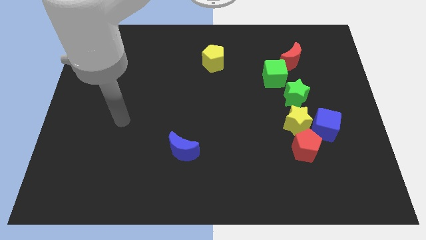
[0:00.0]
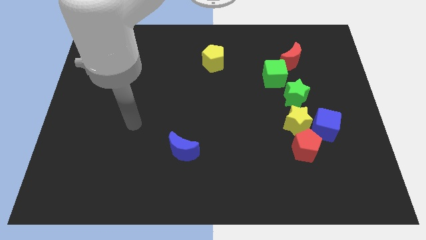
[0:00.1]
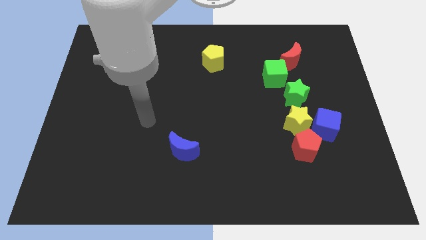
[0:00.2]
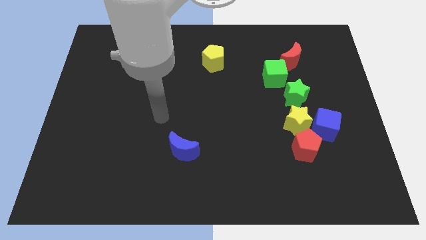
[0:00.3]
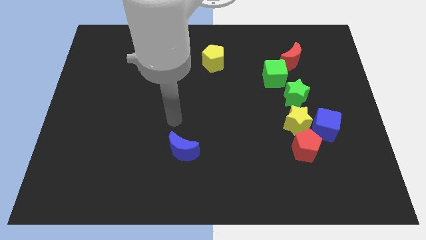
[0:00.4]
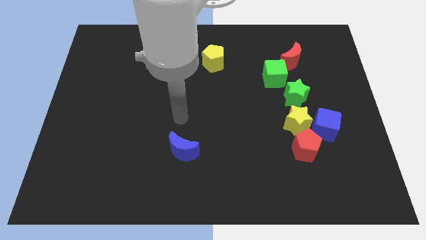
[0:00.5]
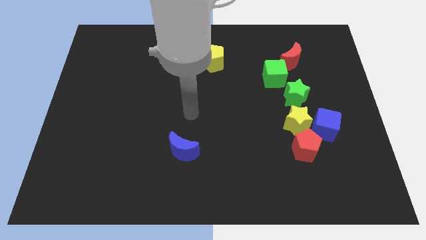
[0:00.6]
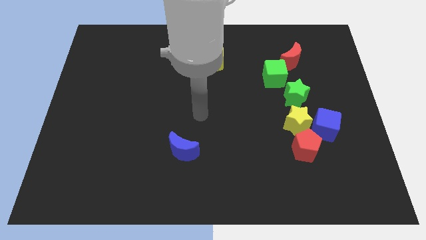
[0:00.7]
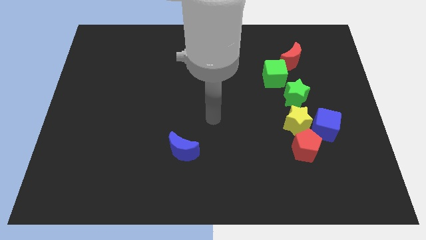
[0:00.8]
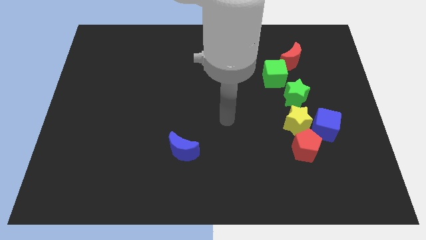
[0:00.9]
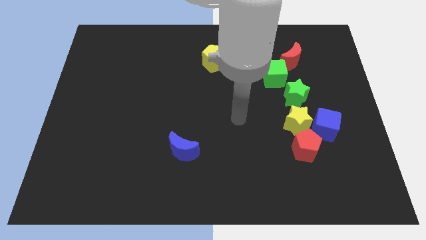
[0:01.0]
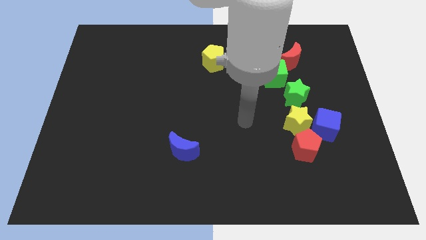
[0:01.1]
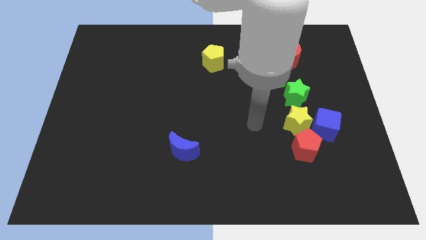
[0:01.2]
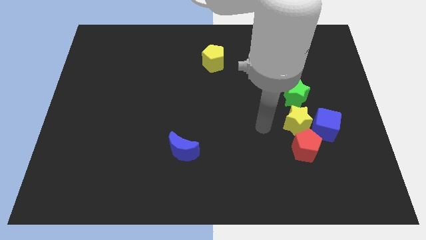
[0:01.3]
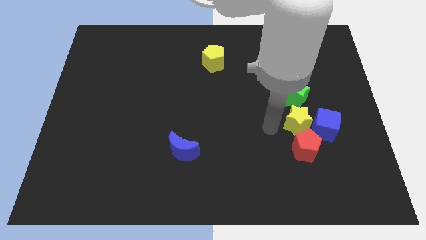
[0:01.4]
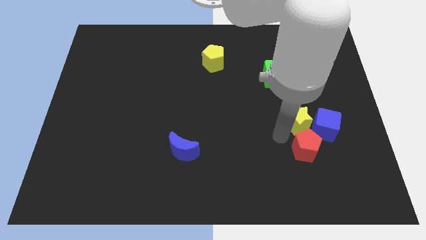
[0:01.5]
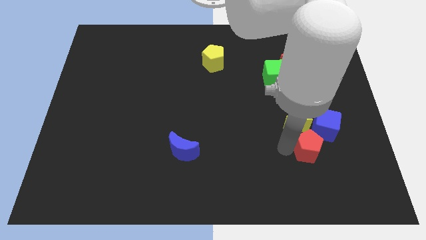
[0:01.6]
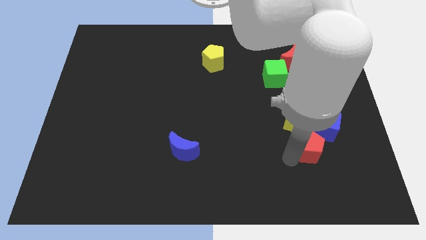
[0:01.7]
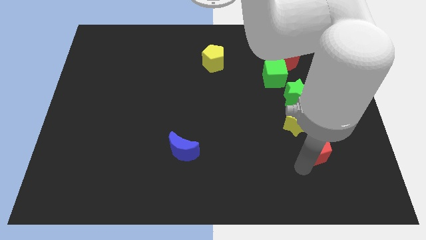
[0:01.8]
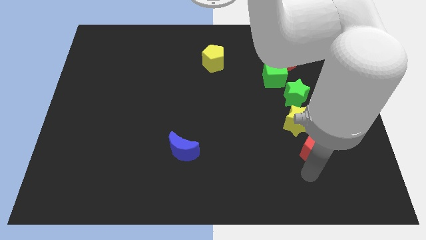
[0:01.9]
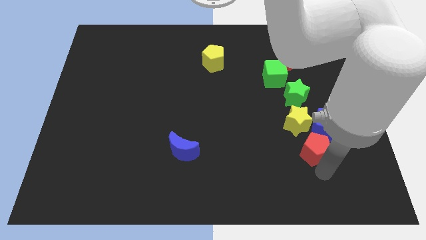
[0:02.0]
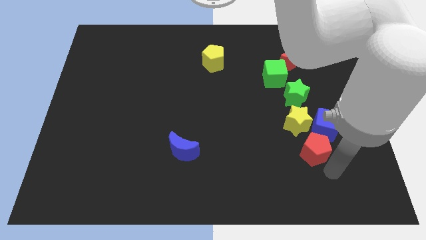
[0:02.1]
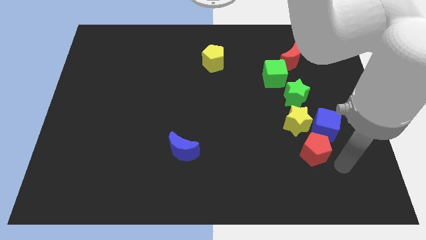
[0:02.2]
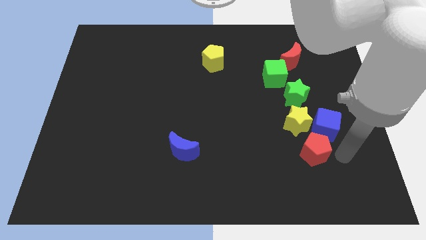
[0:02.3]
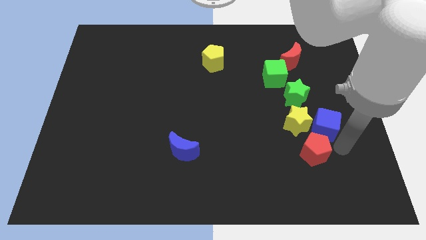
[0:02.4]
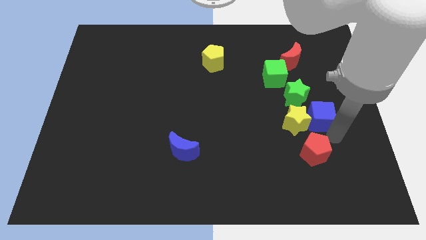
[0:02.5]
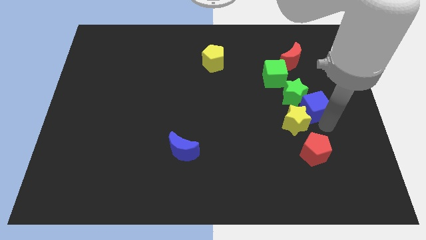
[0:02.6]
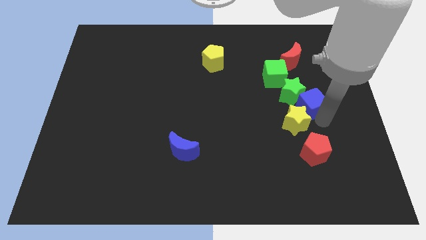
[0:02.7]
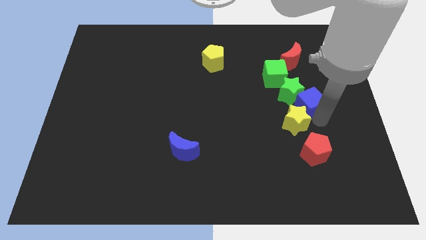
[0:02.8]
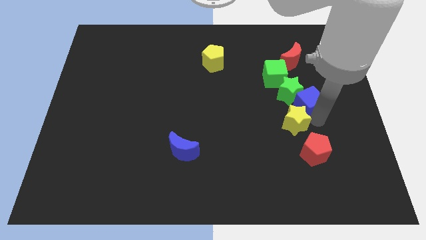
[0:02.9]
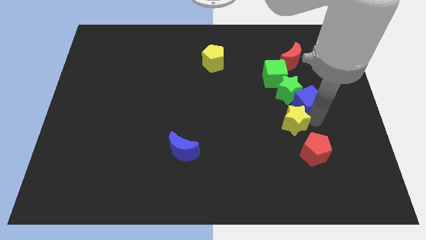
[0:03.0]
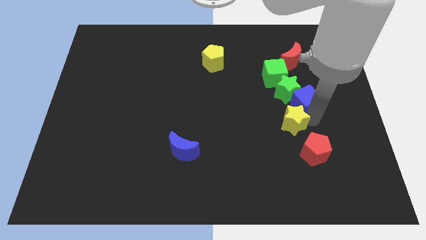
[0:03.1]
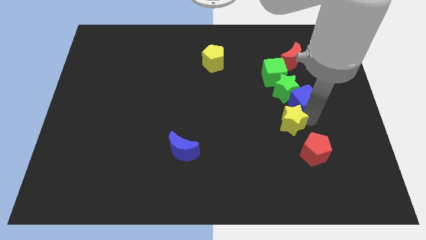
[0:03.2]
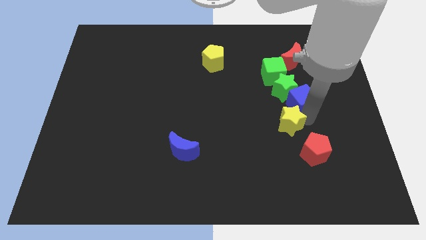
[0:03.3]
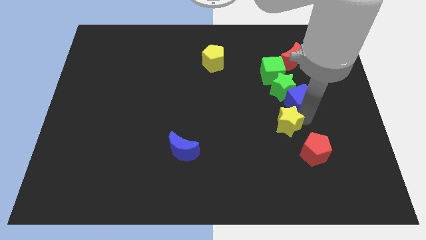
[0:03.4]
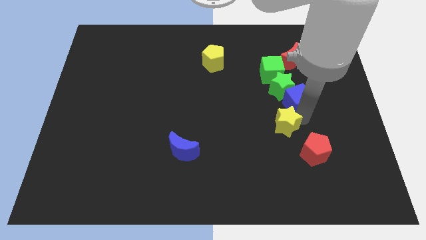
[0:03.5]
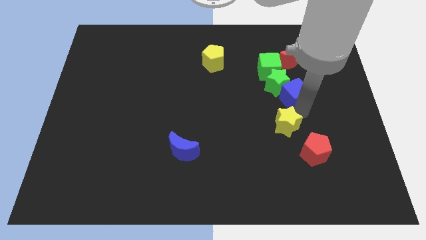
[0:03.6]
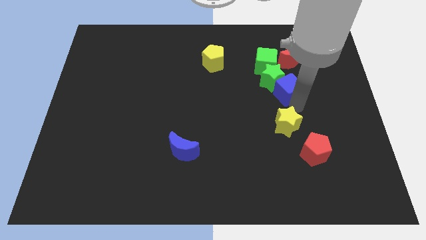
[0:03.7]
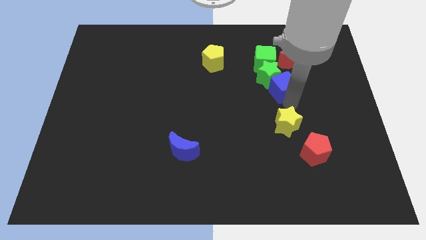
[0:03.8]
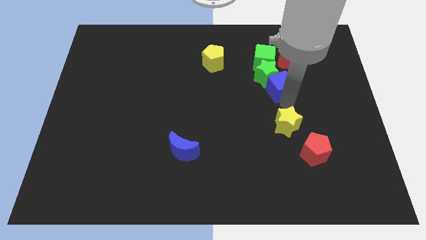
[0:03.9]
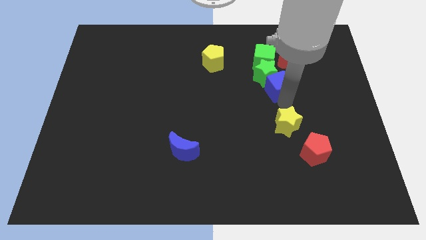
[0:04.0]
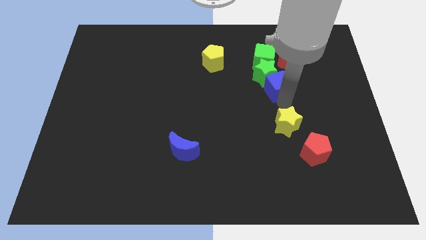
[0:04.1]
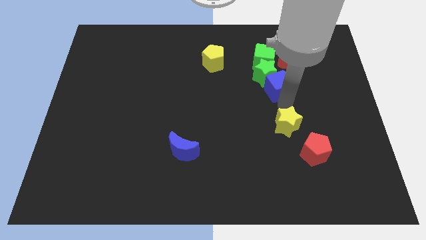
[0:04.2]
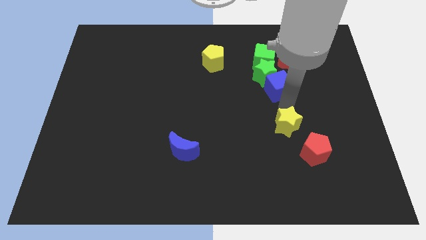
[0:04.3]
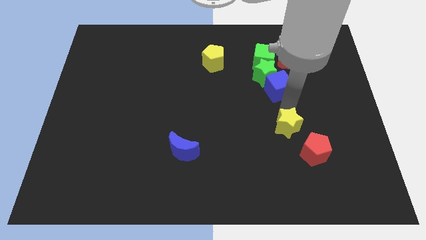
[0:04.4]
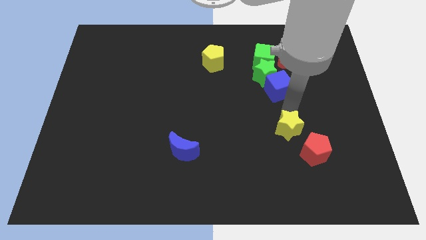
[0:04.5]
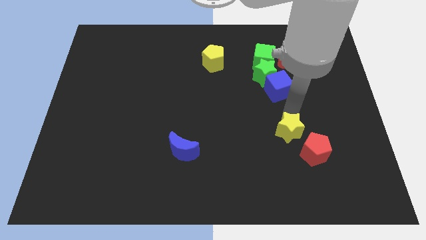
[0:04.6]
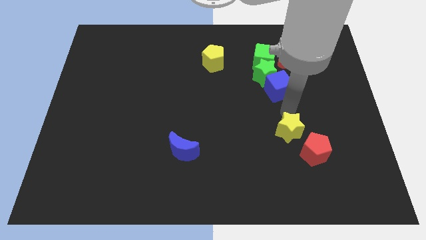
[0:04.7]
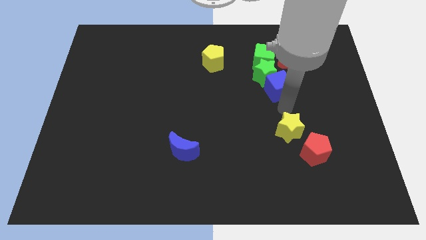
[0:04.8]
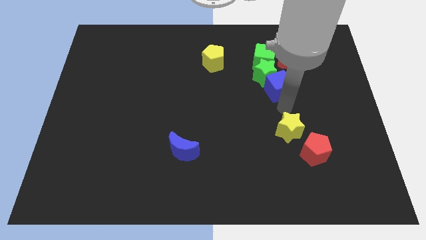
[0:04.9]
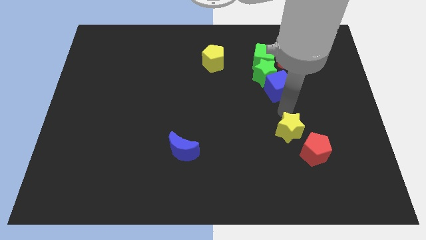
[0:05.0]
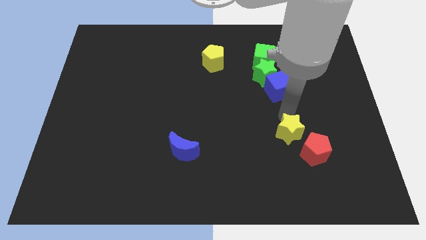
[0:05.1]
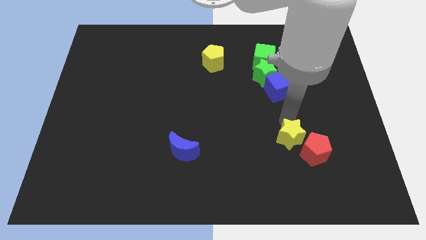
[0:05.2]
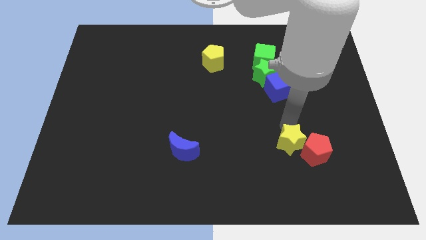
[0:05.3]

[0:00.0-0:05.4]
pull the yellow star apart from the blue cube, red pentagon, and green star

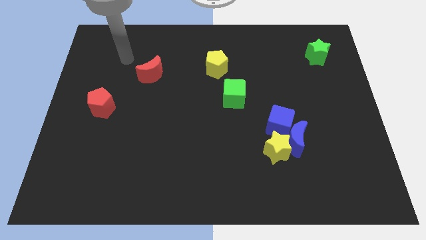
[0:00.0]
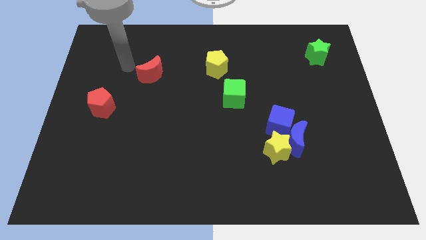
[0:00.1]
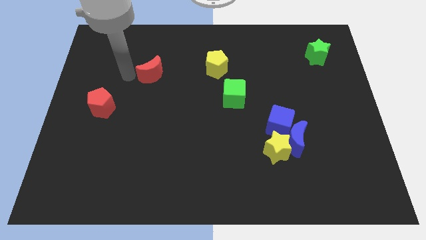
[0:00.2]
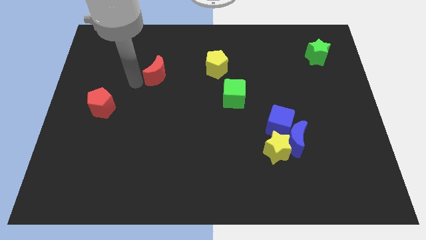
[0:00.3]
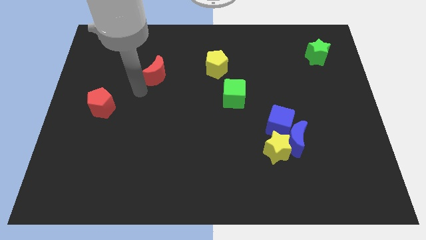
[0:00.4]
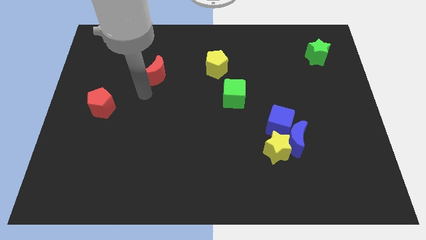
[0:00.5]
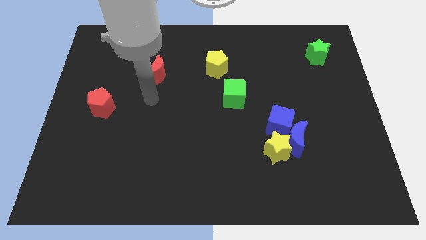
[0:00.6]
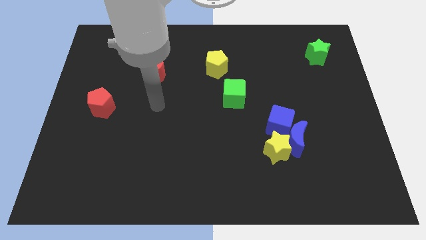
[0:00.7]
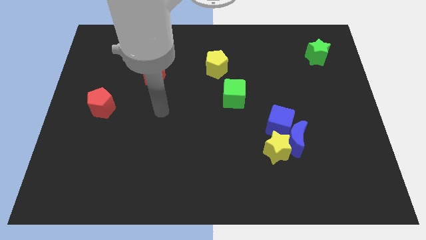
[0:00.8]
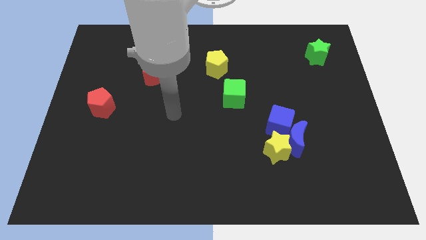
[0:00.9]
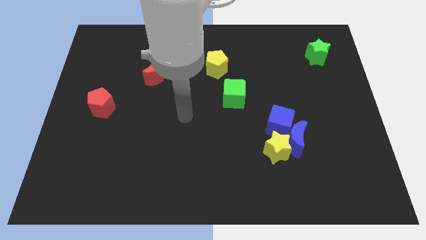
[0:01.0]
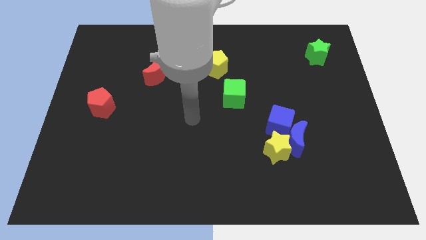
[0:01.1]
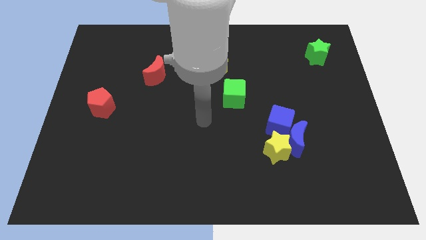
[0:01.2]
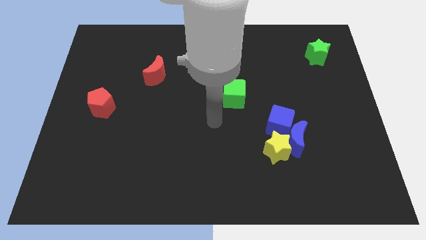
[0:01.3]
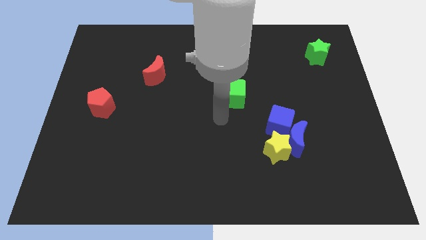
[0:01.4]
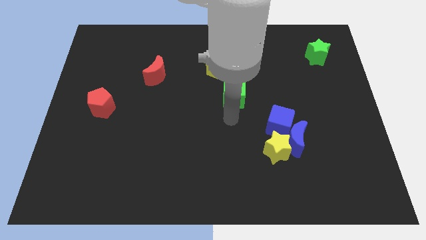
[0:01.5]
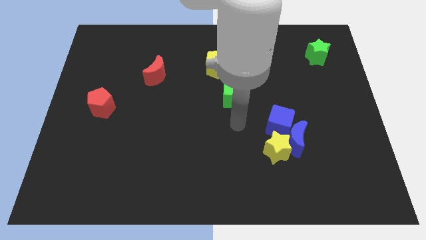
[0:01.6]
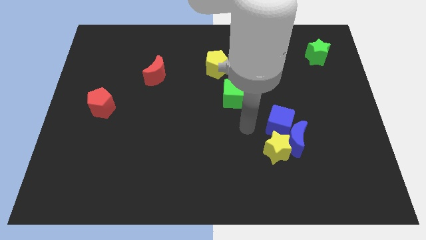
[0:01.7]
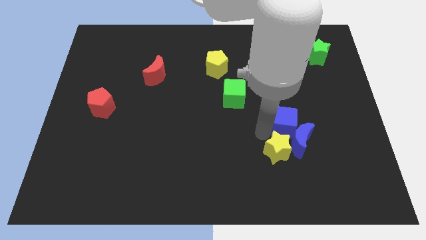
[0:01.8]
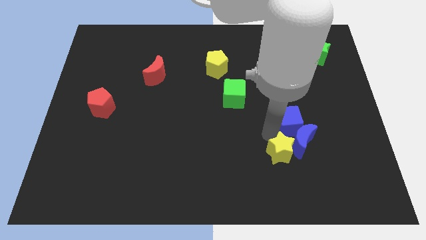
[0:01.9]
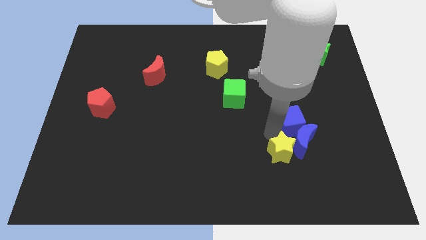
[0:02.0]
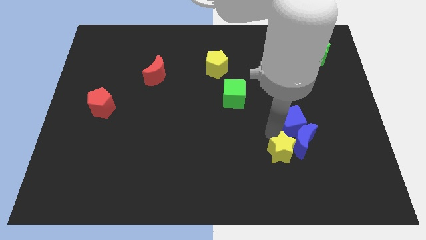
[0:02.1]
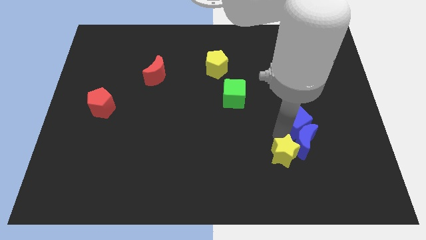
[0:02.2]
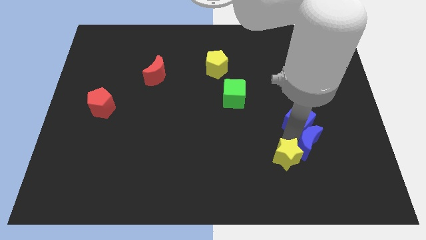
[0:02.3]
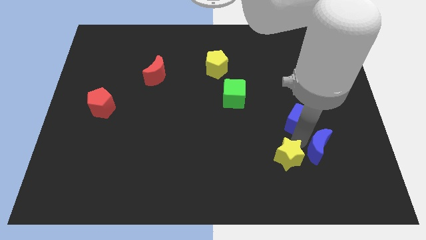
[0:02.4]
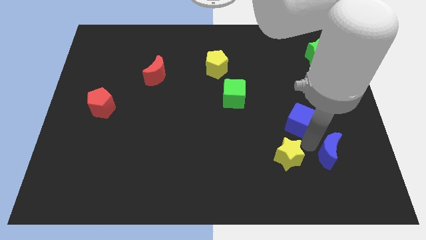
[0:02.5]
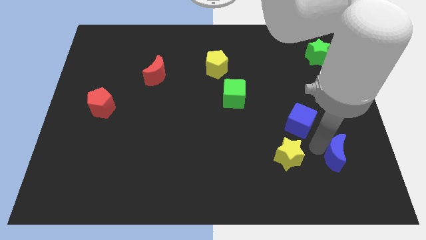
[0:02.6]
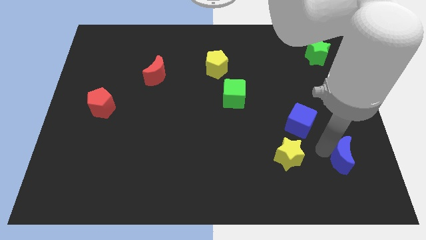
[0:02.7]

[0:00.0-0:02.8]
move the blue moon away from the yellow star and blue cube

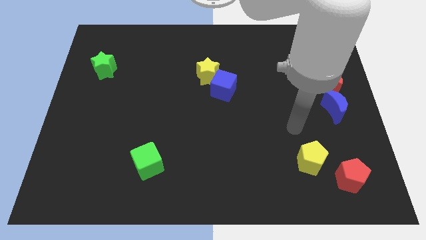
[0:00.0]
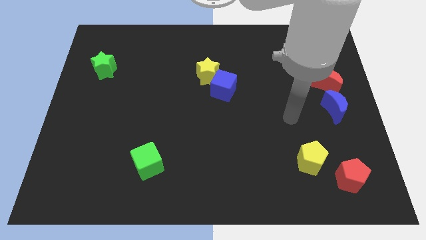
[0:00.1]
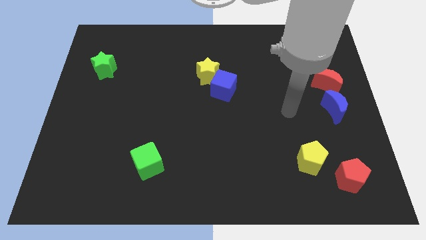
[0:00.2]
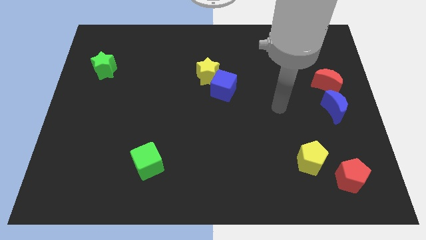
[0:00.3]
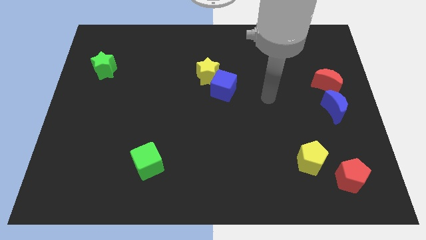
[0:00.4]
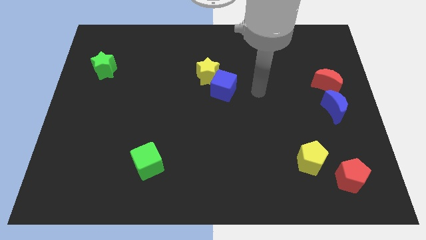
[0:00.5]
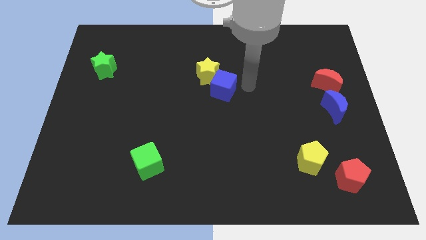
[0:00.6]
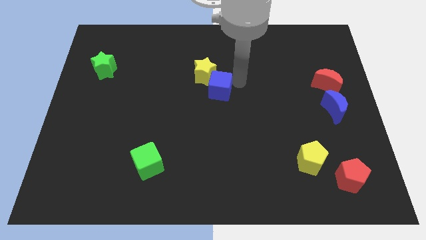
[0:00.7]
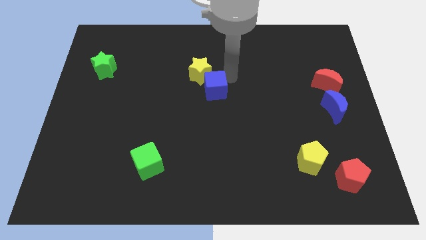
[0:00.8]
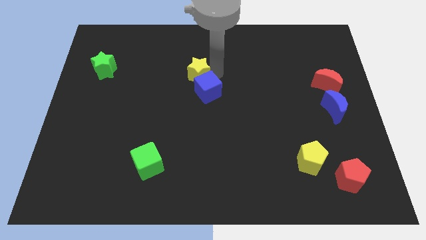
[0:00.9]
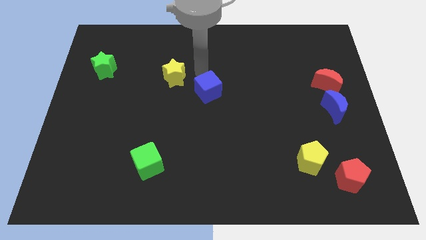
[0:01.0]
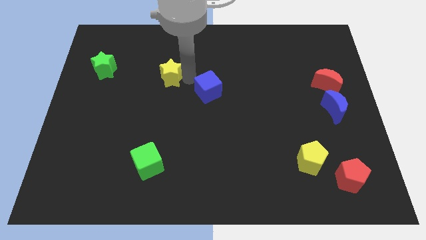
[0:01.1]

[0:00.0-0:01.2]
separate the blue cube from the yellow star
